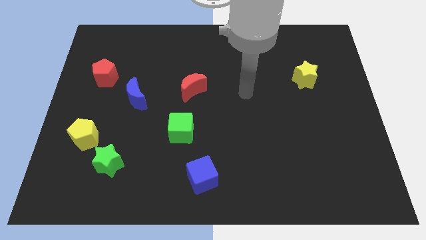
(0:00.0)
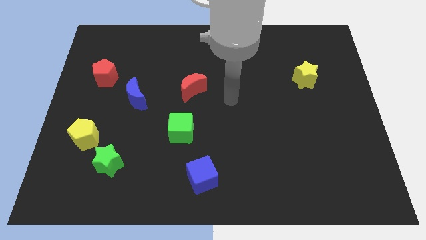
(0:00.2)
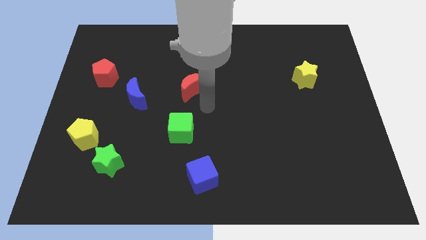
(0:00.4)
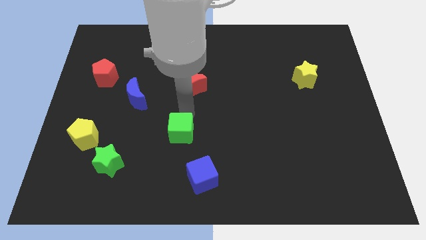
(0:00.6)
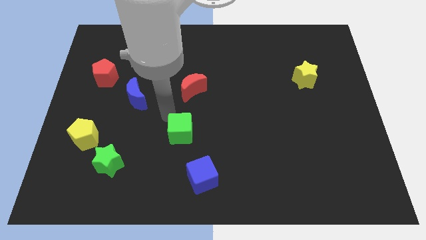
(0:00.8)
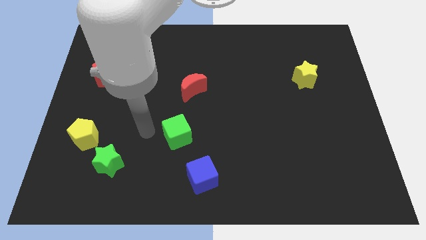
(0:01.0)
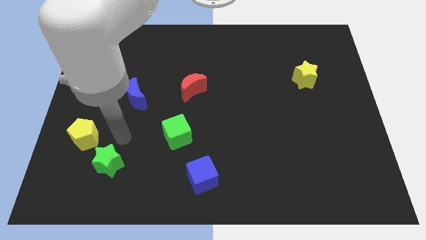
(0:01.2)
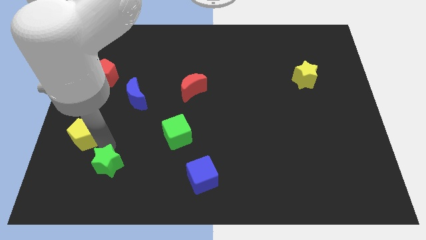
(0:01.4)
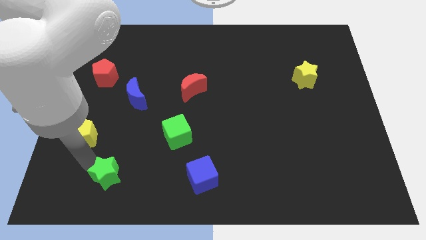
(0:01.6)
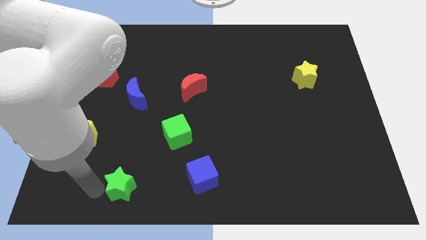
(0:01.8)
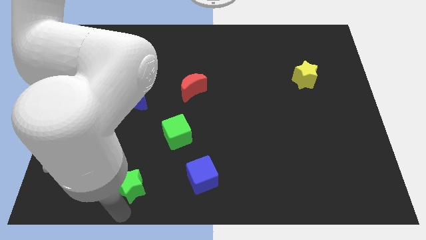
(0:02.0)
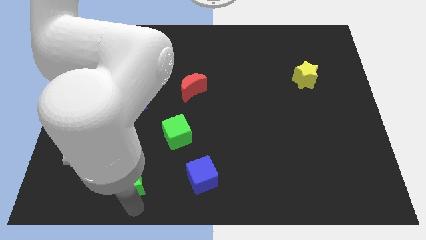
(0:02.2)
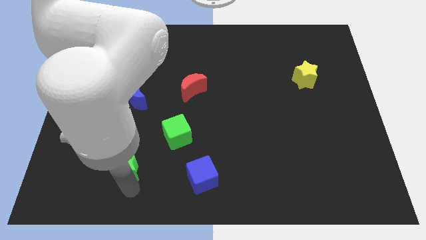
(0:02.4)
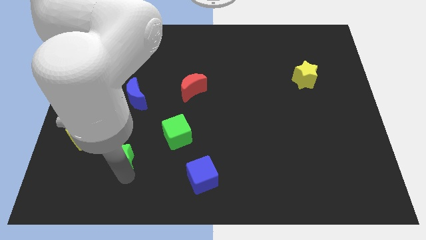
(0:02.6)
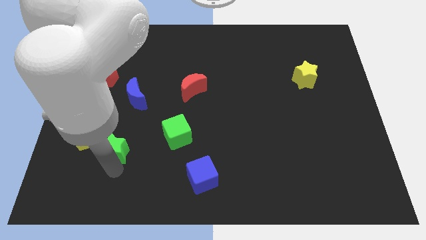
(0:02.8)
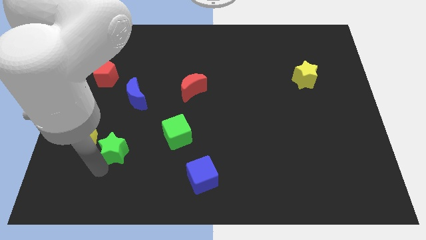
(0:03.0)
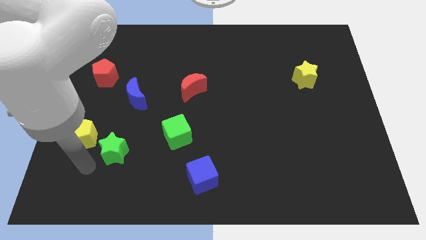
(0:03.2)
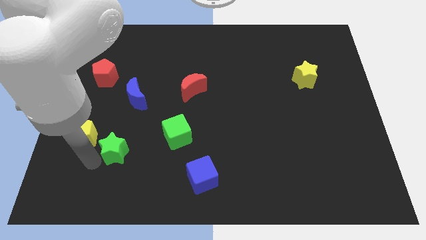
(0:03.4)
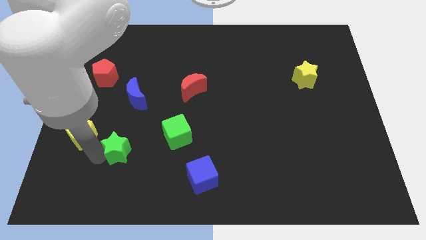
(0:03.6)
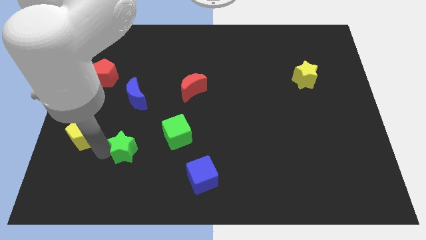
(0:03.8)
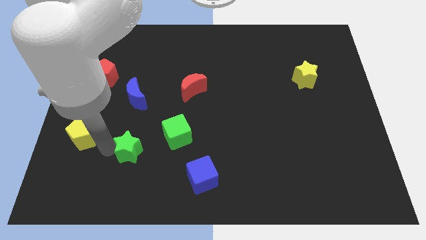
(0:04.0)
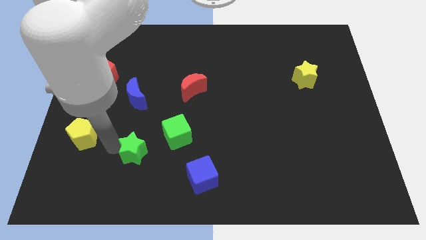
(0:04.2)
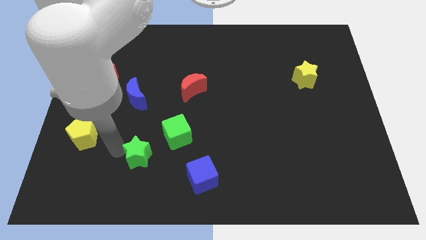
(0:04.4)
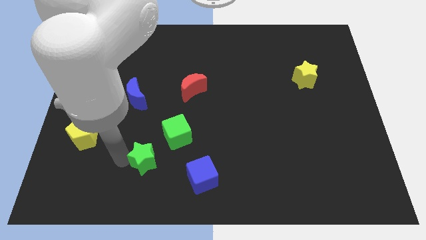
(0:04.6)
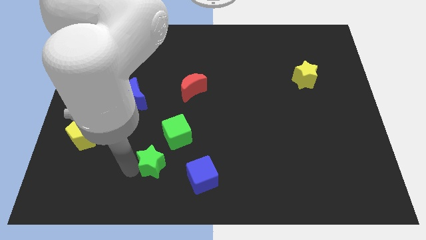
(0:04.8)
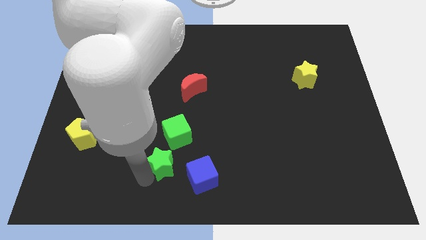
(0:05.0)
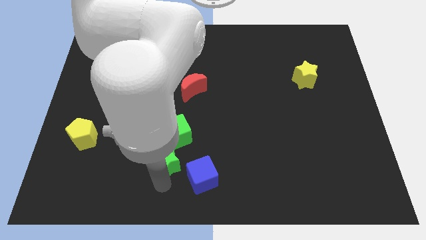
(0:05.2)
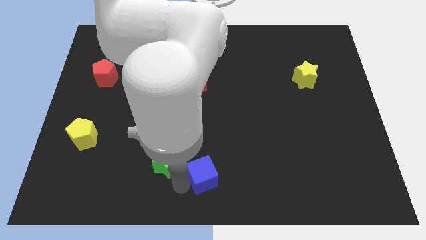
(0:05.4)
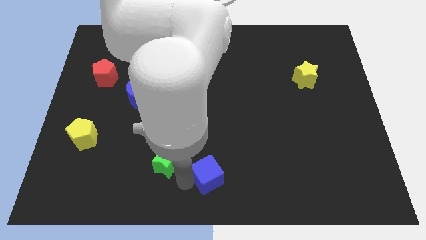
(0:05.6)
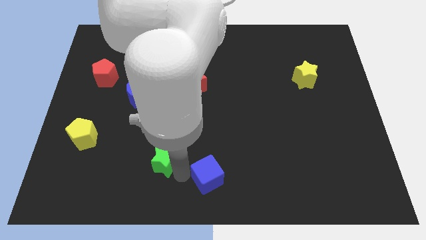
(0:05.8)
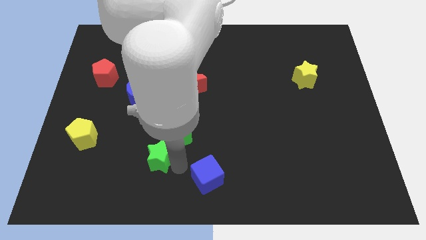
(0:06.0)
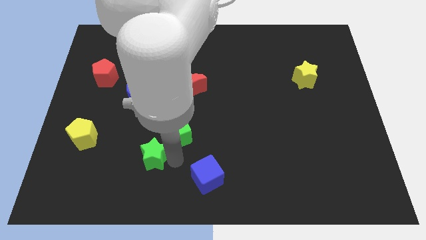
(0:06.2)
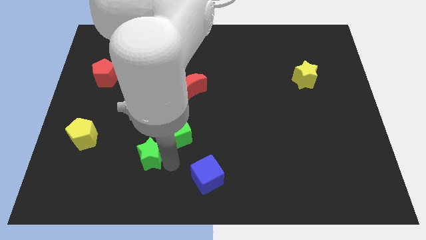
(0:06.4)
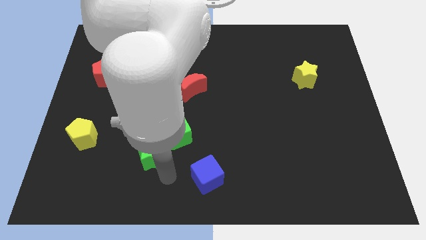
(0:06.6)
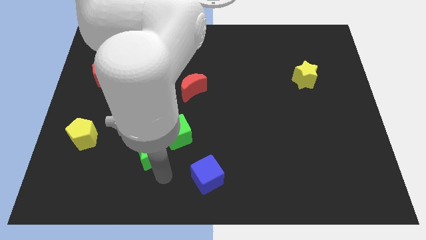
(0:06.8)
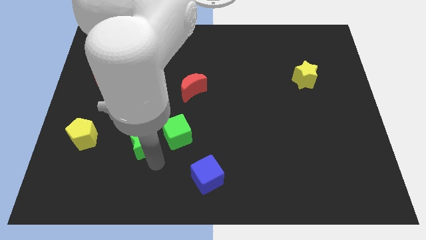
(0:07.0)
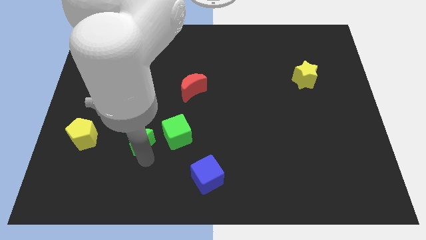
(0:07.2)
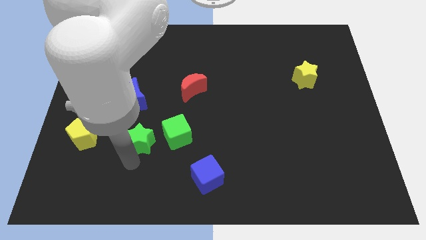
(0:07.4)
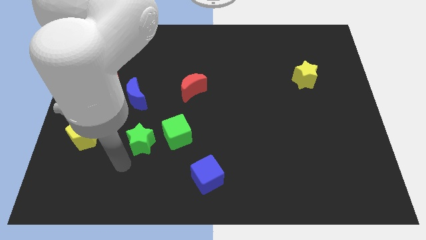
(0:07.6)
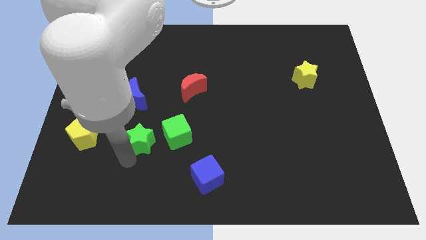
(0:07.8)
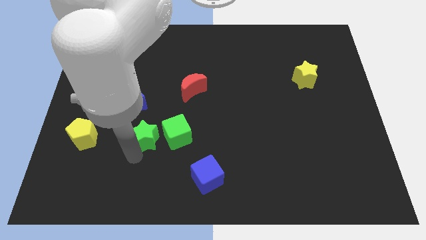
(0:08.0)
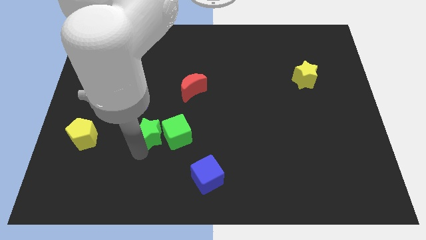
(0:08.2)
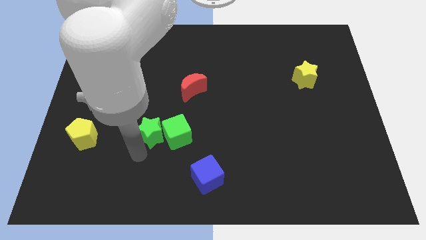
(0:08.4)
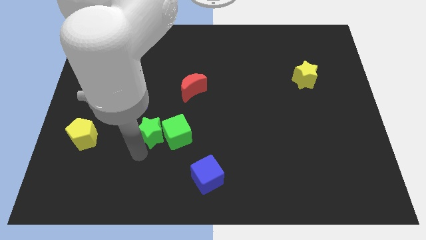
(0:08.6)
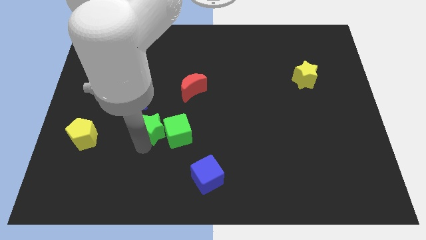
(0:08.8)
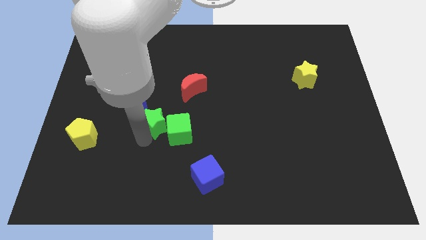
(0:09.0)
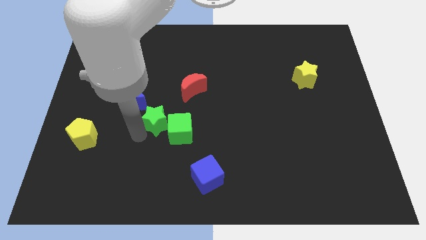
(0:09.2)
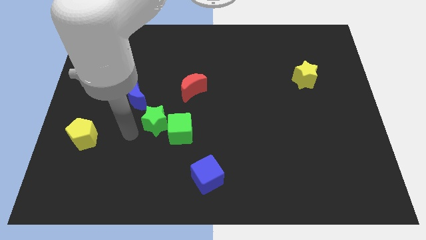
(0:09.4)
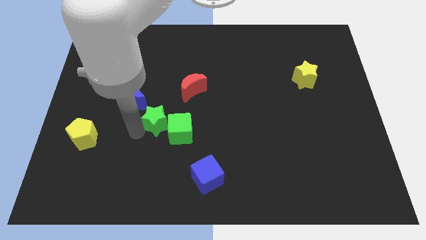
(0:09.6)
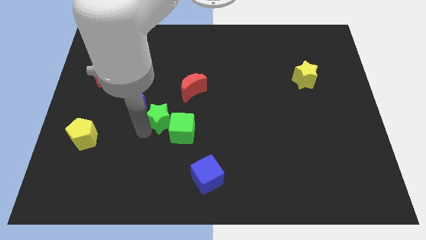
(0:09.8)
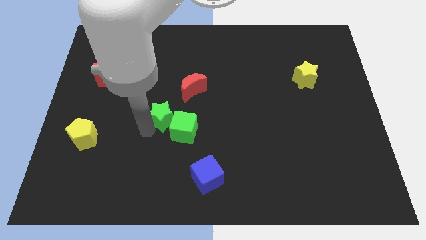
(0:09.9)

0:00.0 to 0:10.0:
move the green star to the center of the board

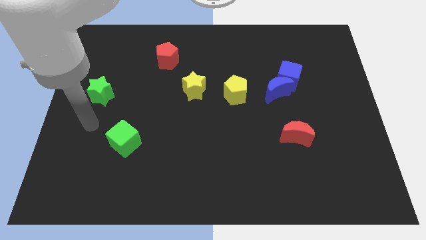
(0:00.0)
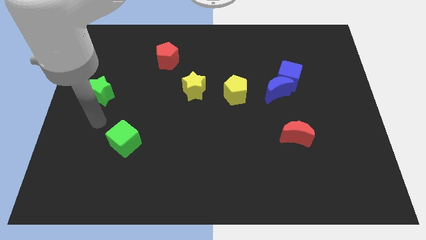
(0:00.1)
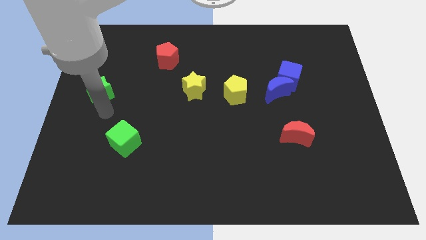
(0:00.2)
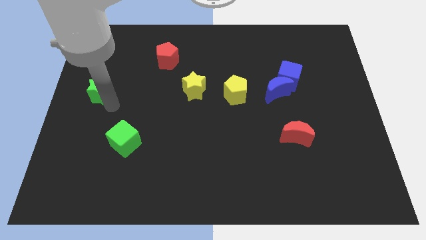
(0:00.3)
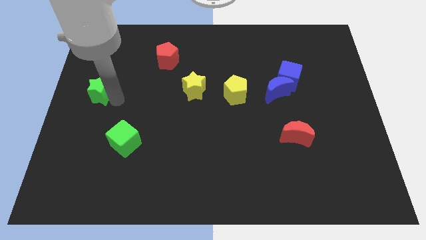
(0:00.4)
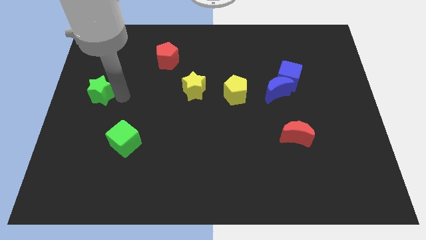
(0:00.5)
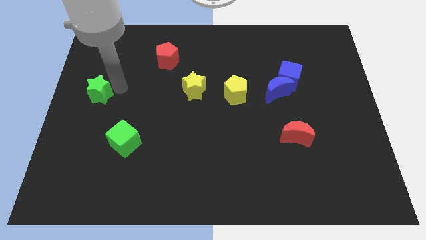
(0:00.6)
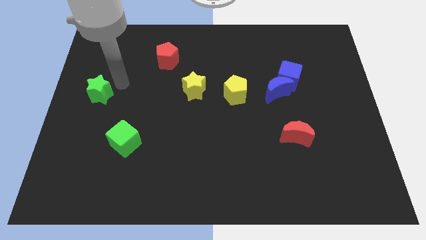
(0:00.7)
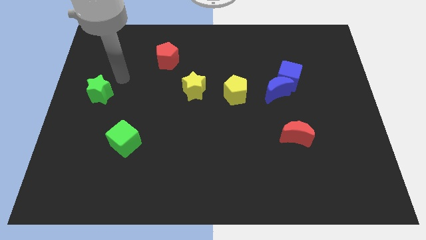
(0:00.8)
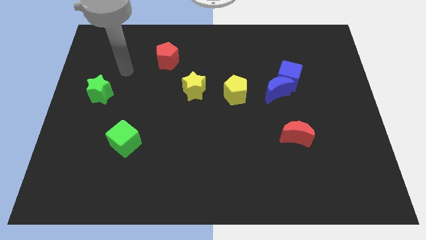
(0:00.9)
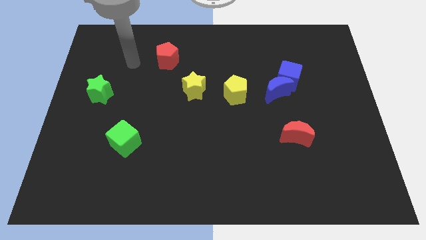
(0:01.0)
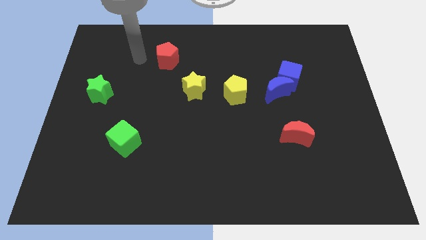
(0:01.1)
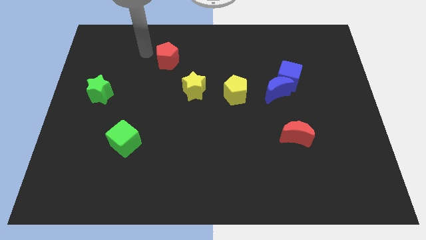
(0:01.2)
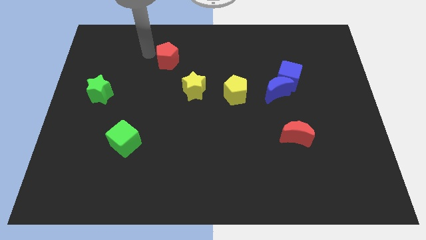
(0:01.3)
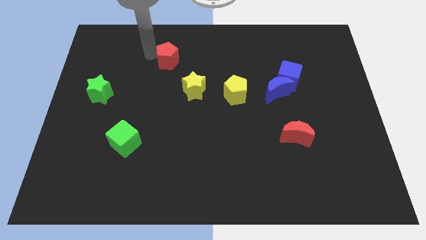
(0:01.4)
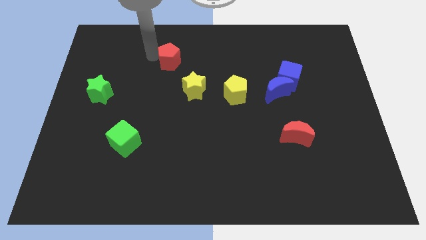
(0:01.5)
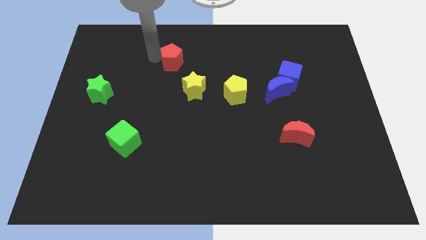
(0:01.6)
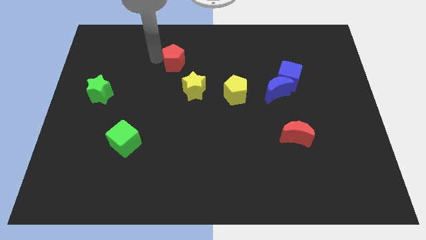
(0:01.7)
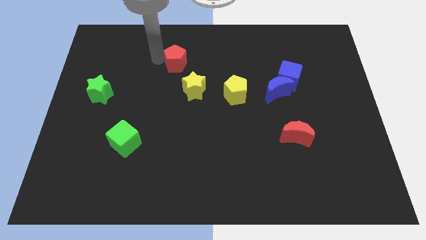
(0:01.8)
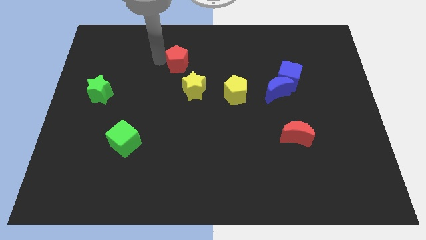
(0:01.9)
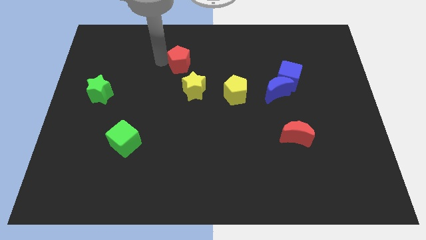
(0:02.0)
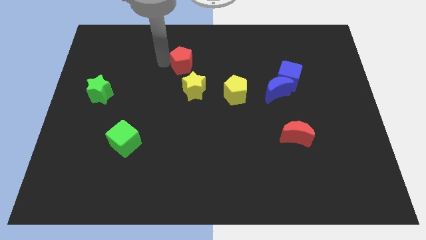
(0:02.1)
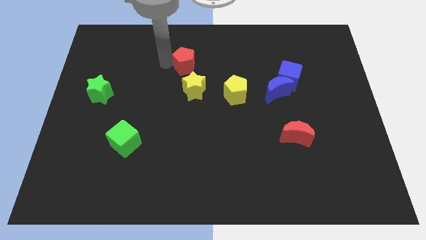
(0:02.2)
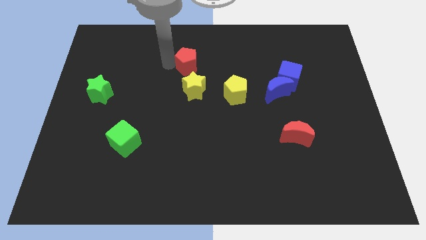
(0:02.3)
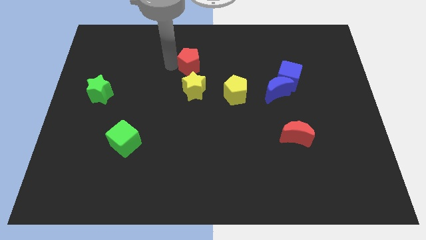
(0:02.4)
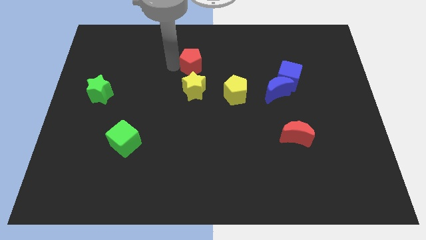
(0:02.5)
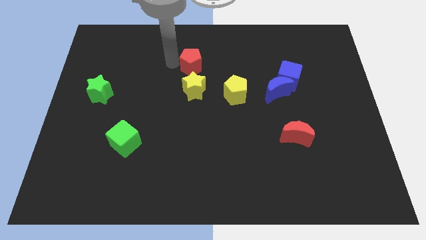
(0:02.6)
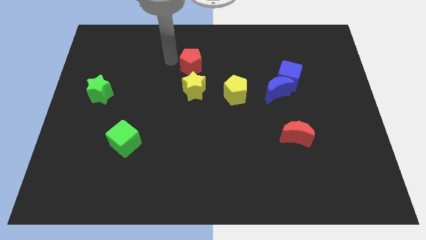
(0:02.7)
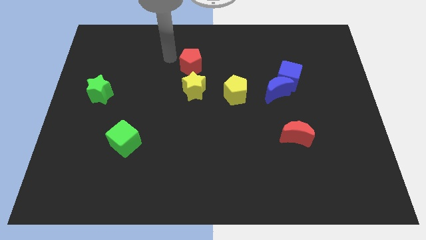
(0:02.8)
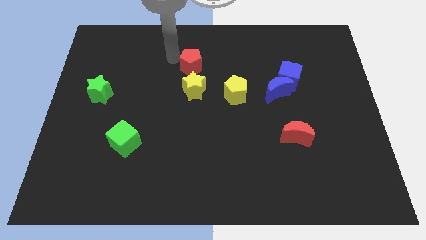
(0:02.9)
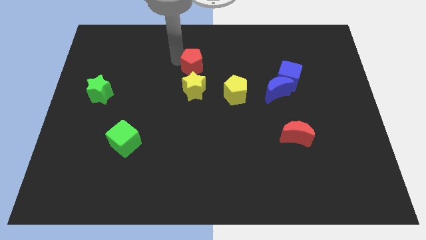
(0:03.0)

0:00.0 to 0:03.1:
put the red pentagon to the middle
